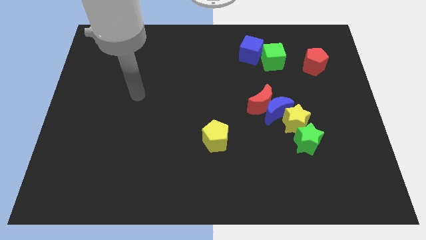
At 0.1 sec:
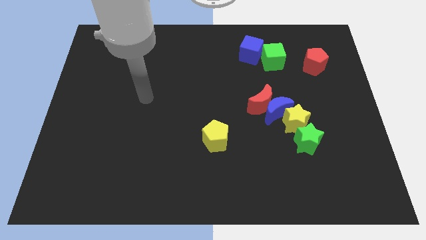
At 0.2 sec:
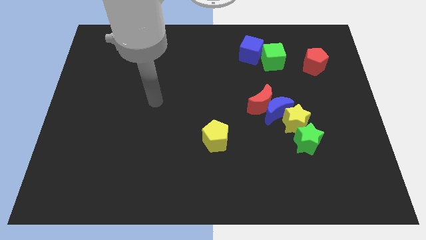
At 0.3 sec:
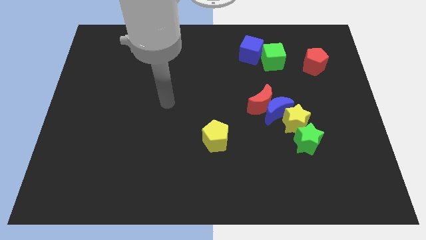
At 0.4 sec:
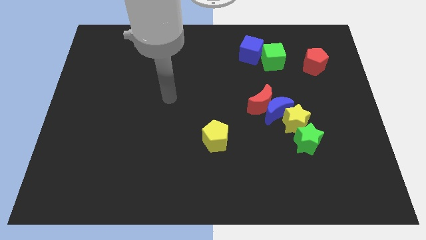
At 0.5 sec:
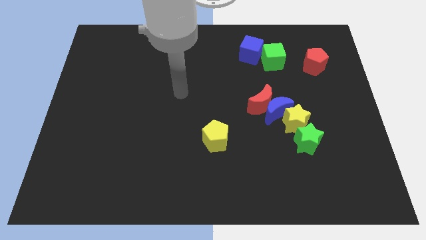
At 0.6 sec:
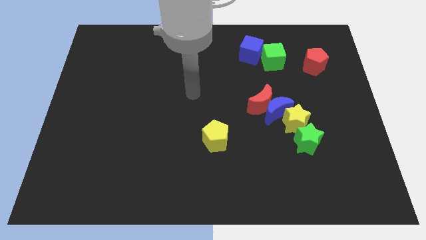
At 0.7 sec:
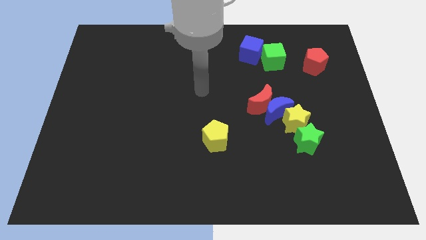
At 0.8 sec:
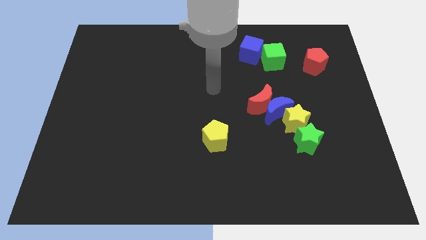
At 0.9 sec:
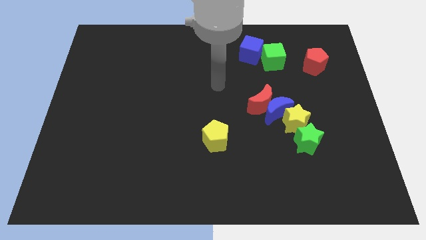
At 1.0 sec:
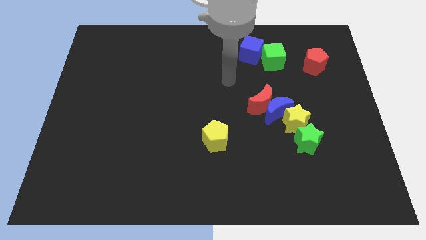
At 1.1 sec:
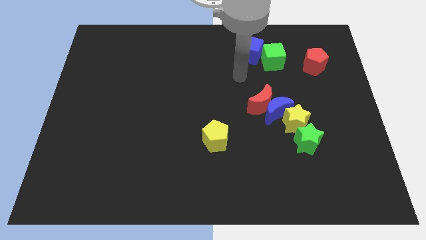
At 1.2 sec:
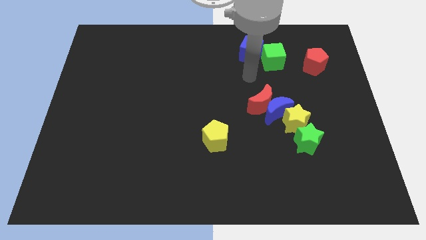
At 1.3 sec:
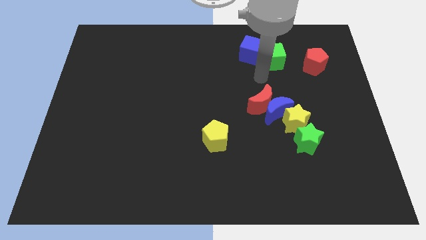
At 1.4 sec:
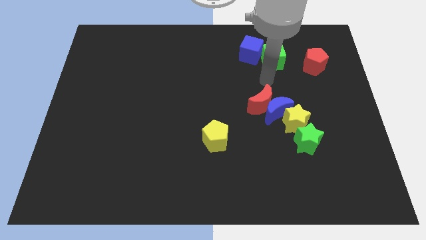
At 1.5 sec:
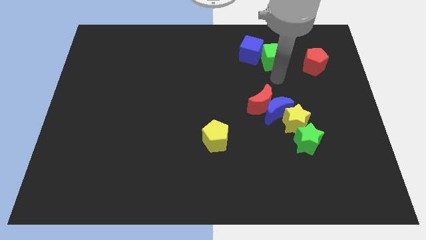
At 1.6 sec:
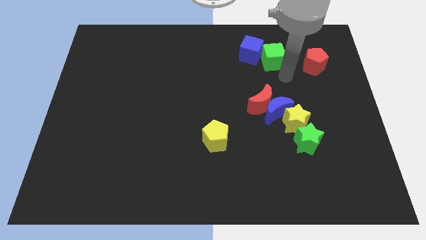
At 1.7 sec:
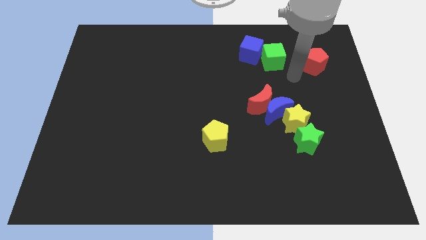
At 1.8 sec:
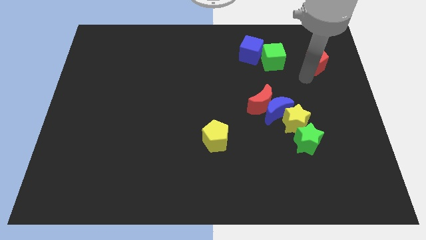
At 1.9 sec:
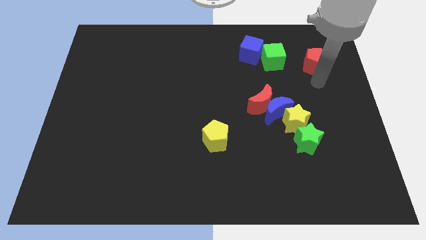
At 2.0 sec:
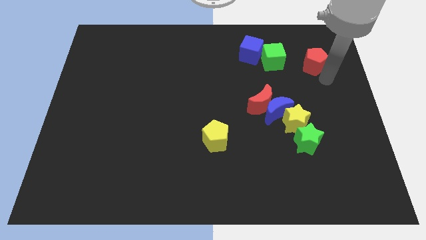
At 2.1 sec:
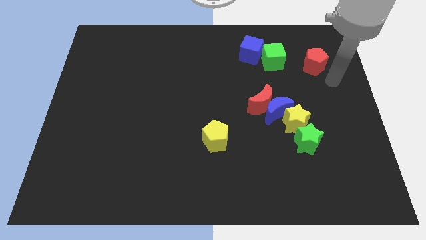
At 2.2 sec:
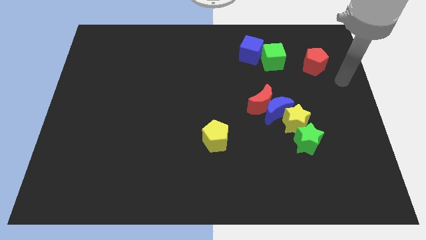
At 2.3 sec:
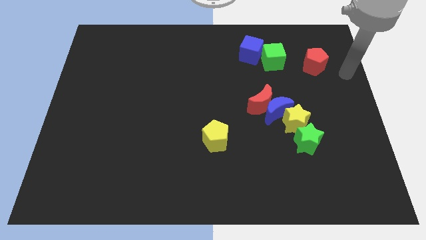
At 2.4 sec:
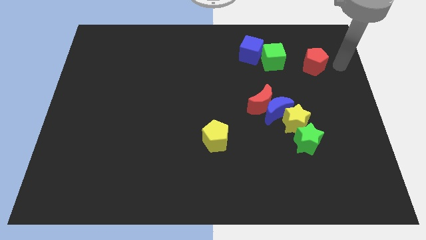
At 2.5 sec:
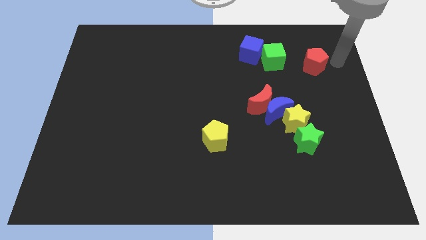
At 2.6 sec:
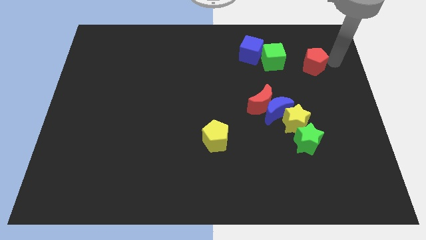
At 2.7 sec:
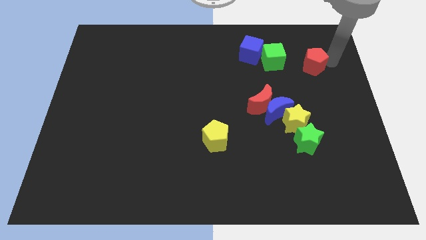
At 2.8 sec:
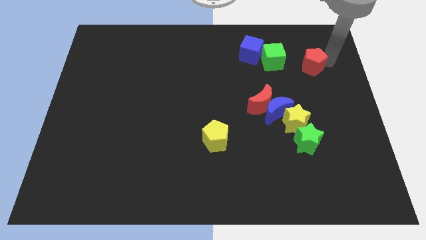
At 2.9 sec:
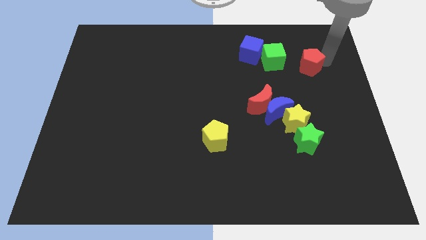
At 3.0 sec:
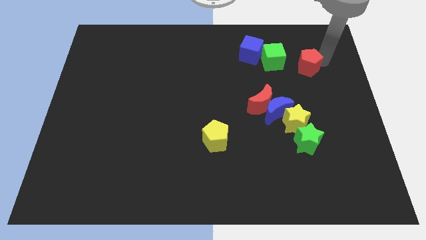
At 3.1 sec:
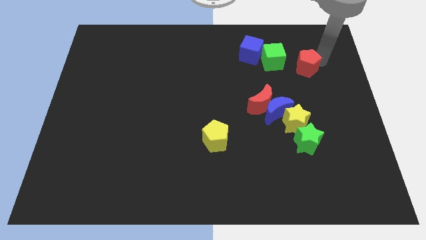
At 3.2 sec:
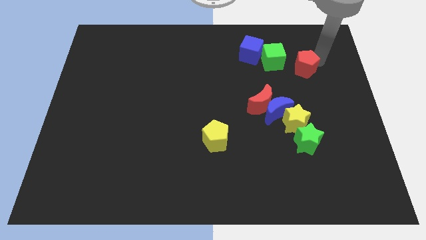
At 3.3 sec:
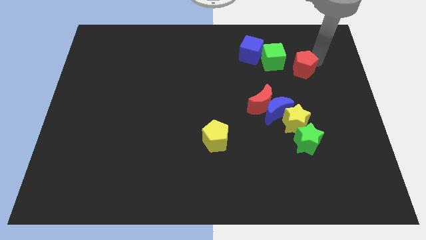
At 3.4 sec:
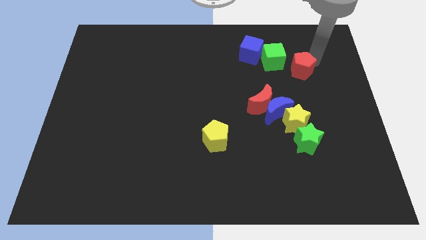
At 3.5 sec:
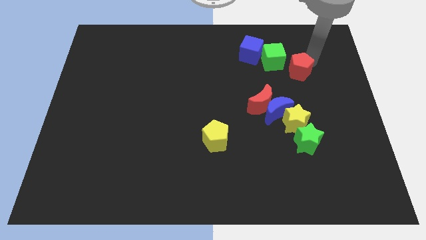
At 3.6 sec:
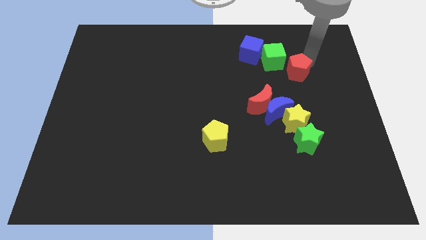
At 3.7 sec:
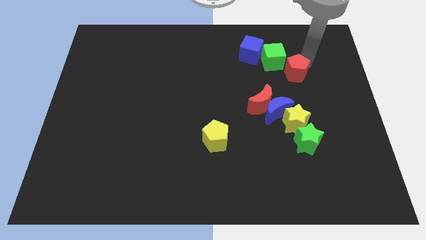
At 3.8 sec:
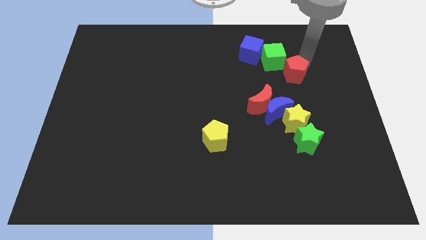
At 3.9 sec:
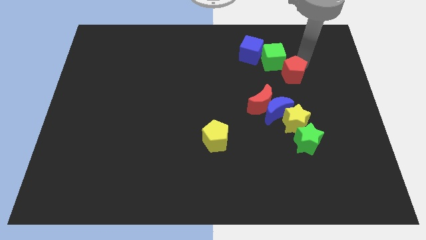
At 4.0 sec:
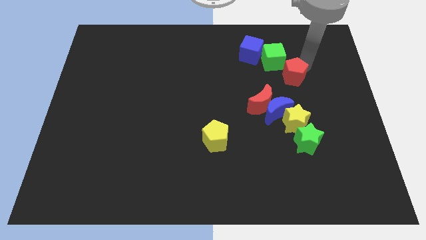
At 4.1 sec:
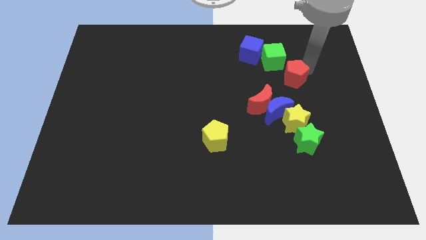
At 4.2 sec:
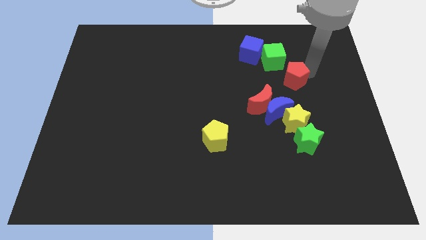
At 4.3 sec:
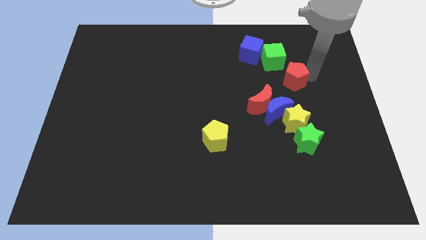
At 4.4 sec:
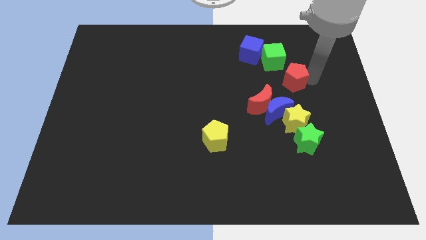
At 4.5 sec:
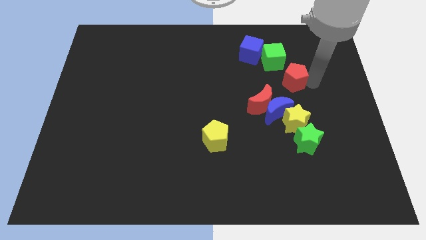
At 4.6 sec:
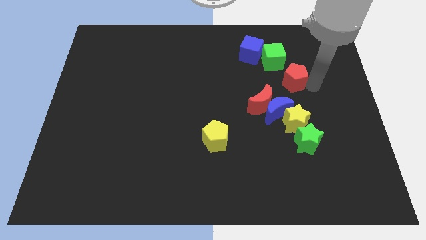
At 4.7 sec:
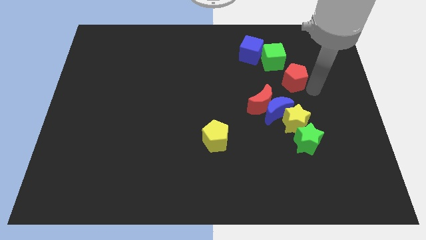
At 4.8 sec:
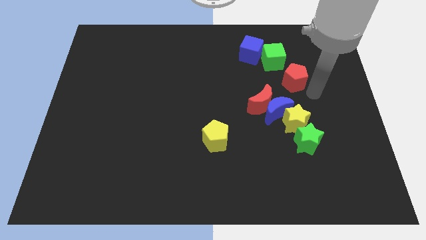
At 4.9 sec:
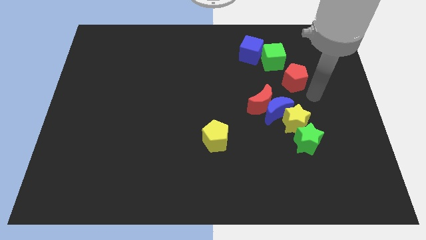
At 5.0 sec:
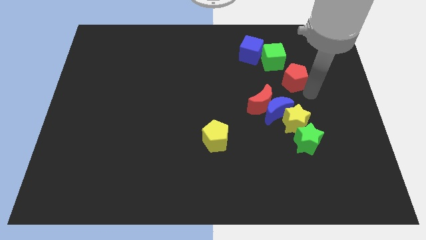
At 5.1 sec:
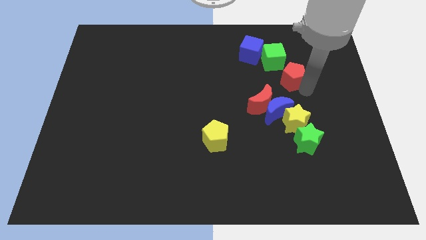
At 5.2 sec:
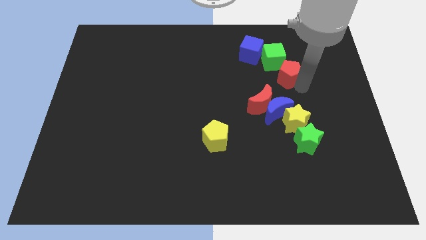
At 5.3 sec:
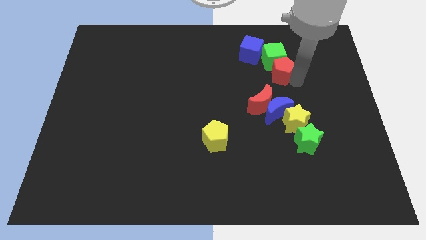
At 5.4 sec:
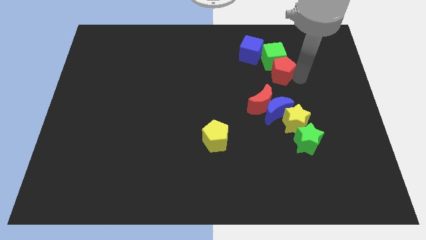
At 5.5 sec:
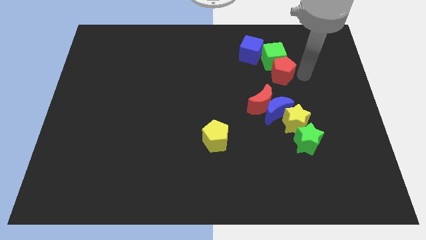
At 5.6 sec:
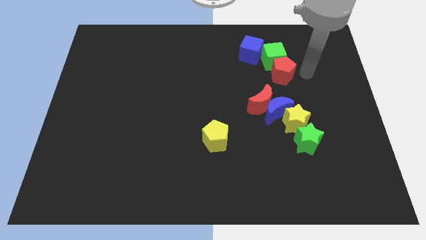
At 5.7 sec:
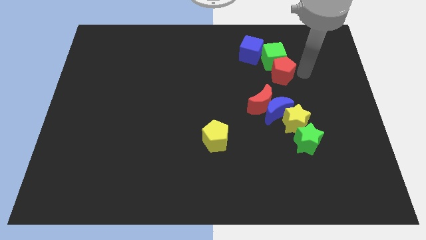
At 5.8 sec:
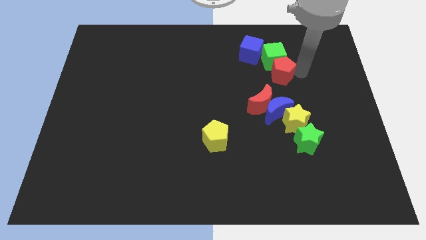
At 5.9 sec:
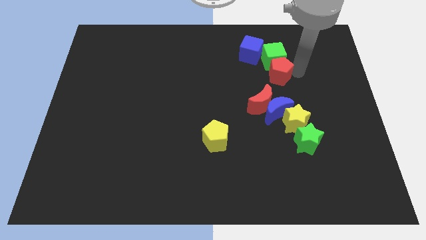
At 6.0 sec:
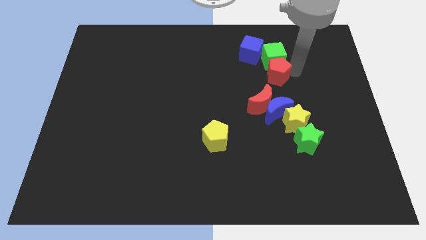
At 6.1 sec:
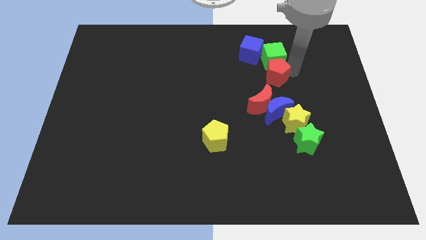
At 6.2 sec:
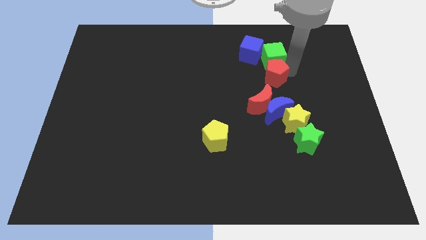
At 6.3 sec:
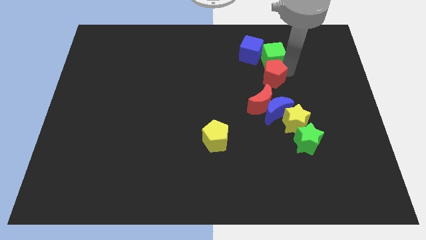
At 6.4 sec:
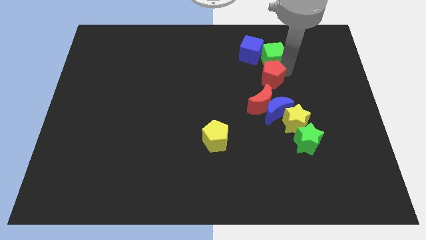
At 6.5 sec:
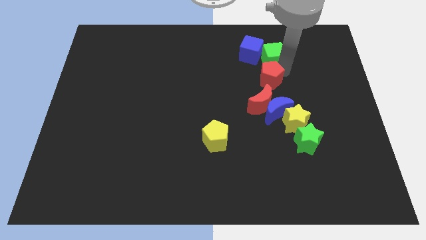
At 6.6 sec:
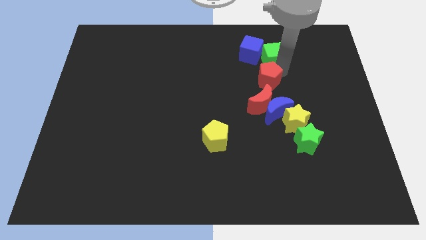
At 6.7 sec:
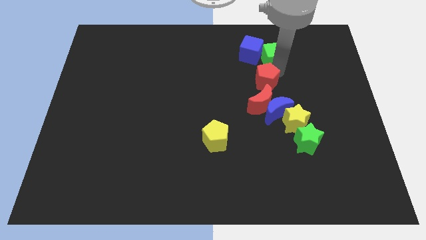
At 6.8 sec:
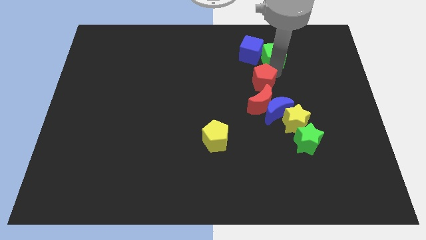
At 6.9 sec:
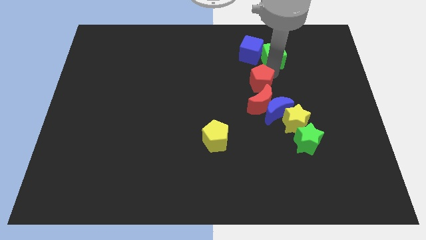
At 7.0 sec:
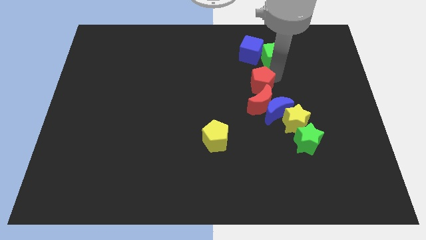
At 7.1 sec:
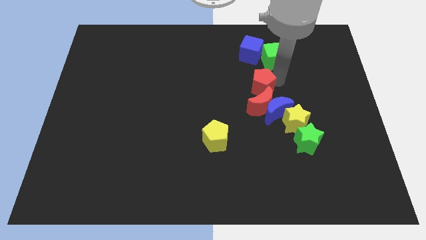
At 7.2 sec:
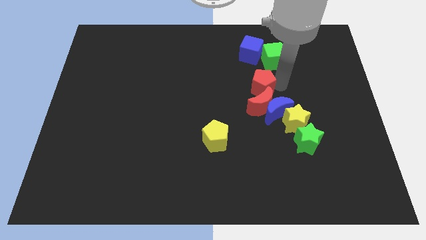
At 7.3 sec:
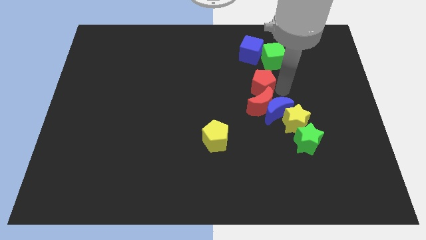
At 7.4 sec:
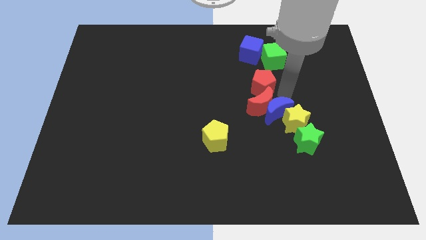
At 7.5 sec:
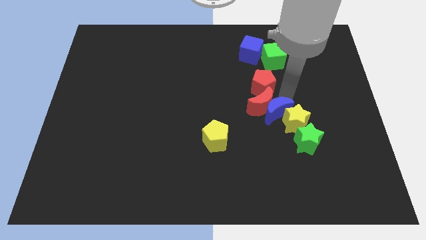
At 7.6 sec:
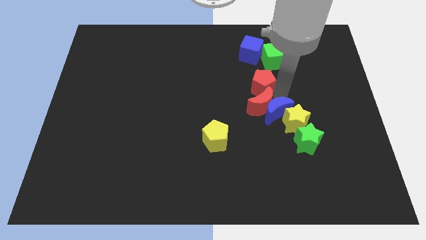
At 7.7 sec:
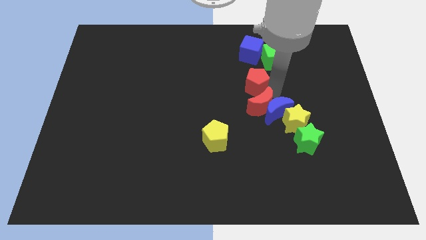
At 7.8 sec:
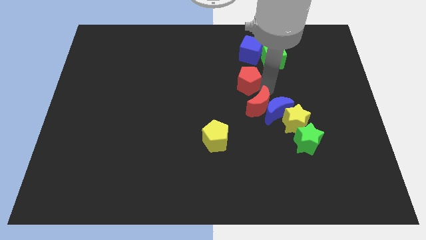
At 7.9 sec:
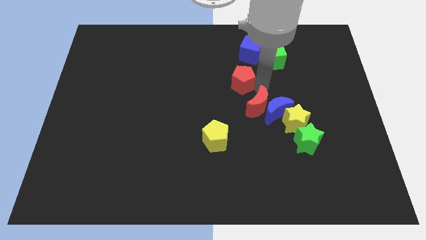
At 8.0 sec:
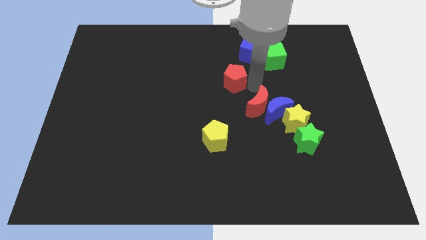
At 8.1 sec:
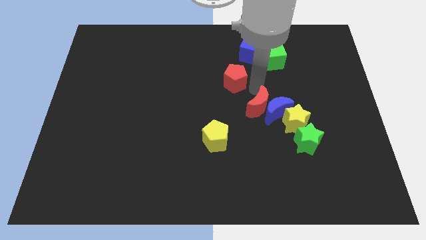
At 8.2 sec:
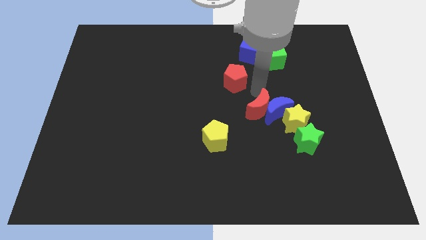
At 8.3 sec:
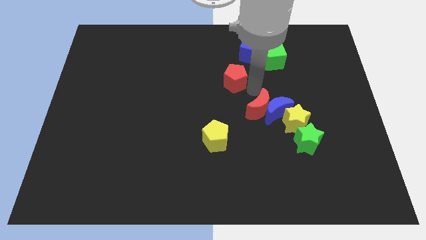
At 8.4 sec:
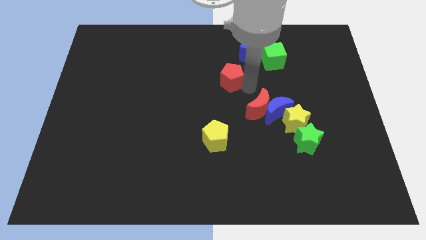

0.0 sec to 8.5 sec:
push the red pentagon left
